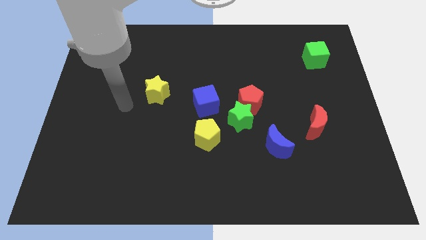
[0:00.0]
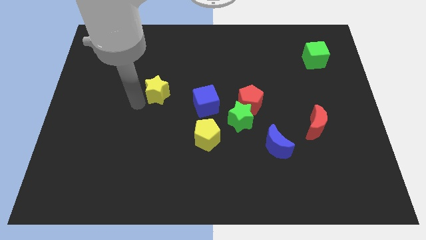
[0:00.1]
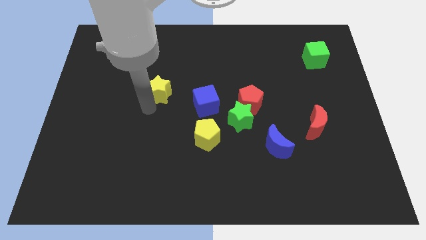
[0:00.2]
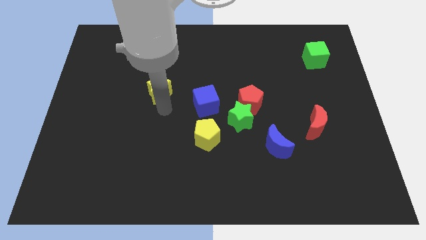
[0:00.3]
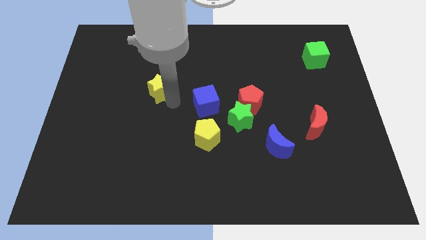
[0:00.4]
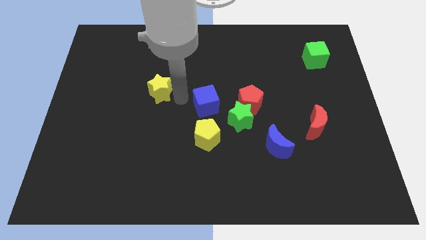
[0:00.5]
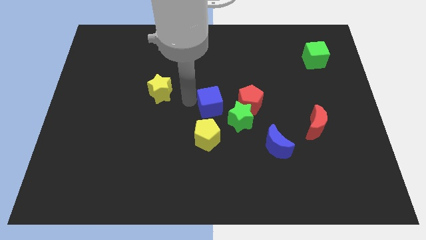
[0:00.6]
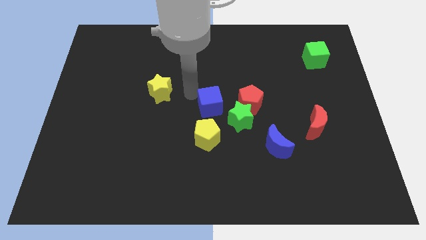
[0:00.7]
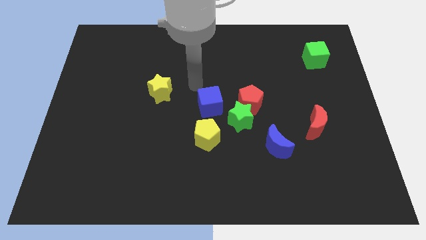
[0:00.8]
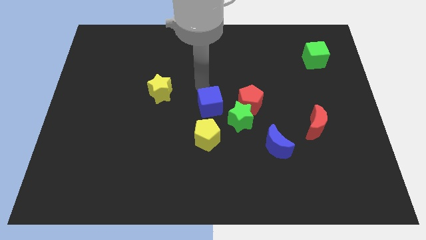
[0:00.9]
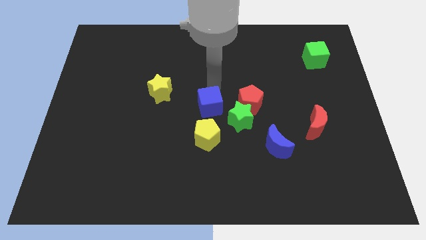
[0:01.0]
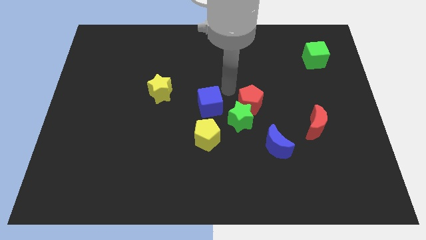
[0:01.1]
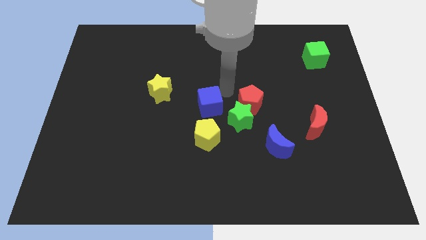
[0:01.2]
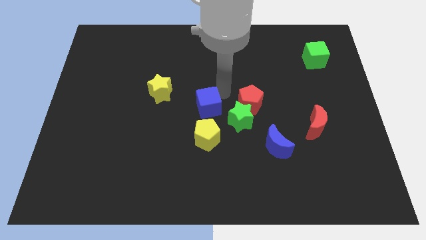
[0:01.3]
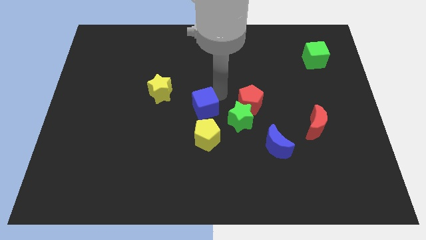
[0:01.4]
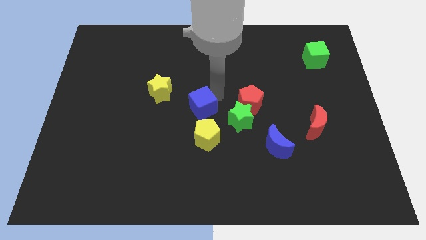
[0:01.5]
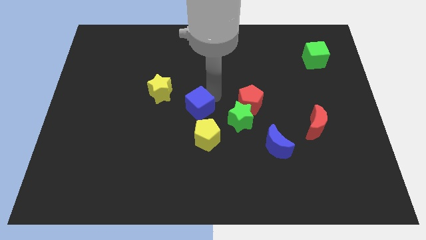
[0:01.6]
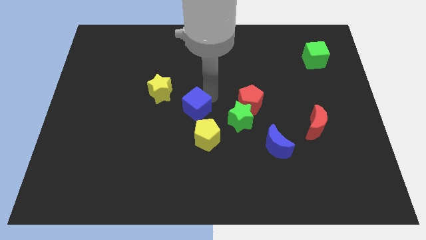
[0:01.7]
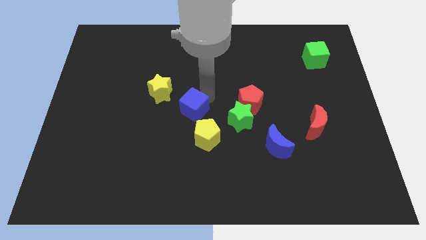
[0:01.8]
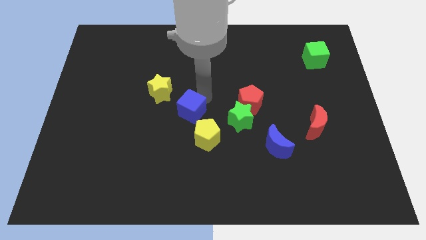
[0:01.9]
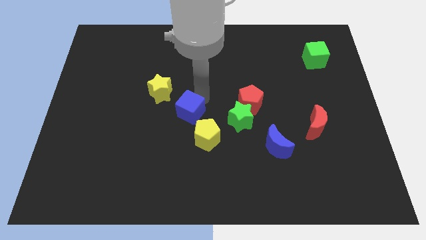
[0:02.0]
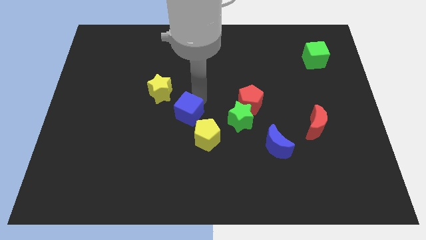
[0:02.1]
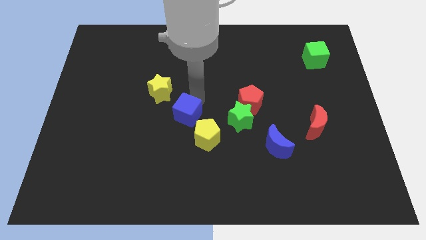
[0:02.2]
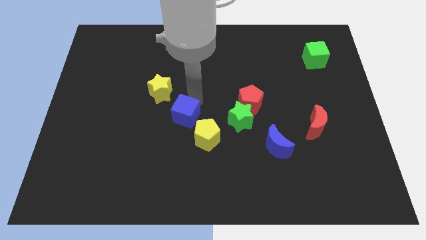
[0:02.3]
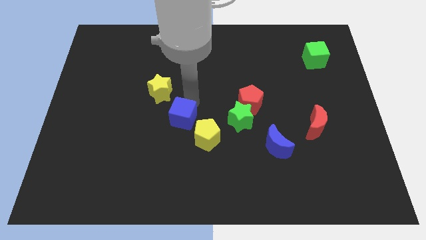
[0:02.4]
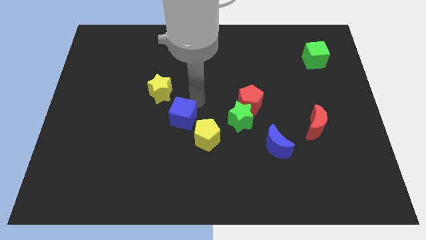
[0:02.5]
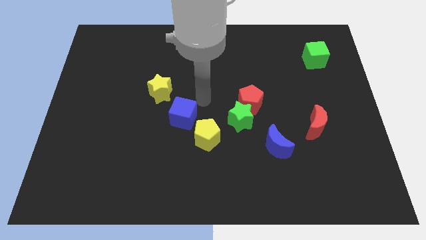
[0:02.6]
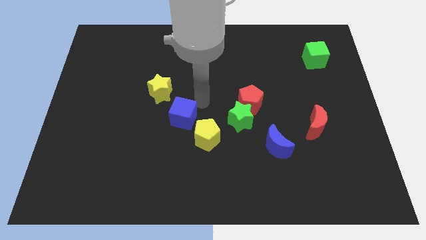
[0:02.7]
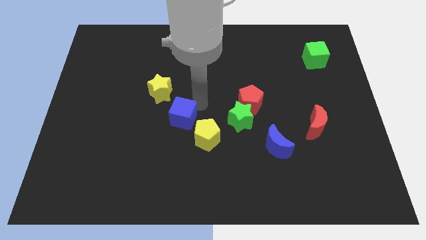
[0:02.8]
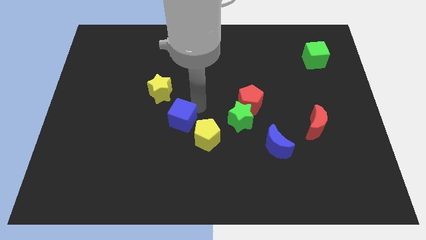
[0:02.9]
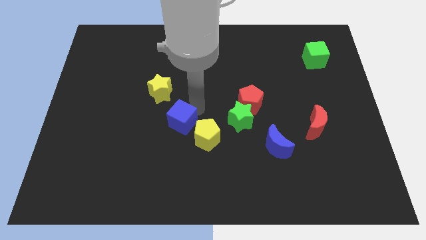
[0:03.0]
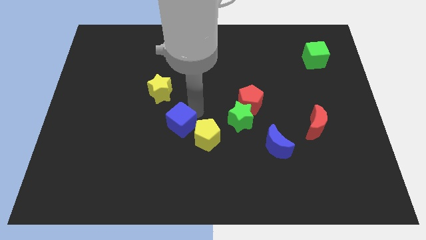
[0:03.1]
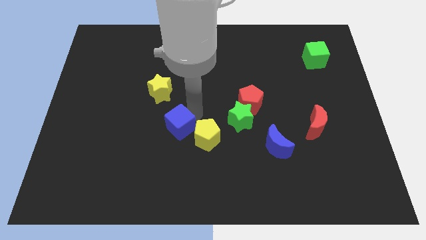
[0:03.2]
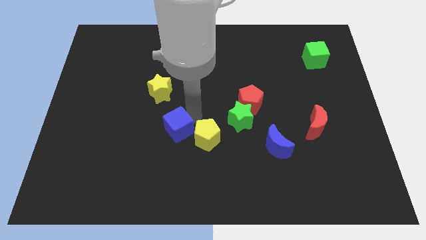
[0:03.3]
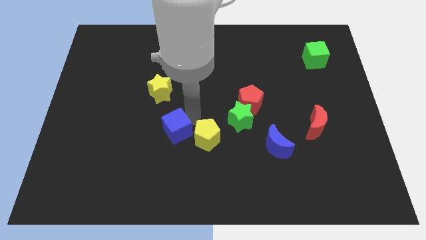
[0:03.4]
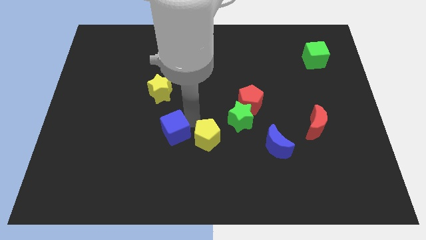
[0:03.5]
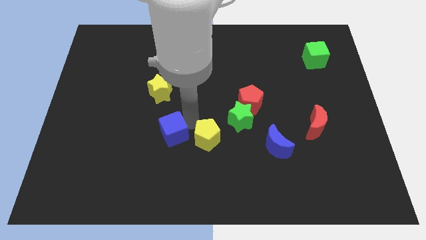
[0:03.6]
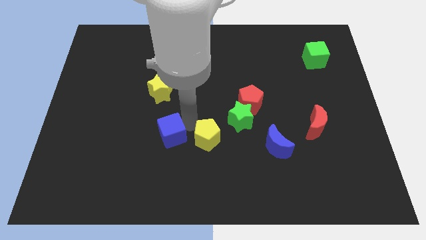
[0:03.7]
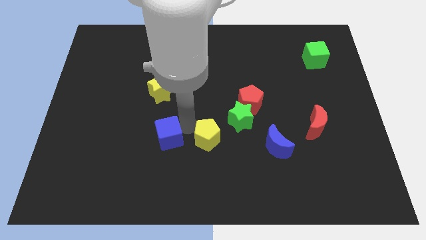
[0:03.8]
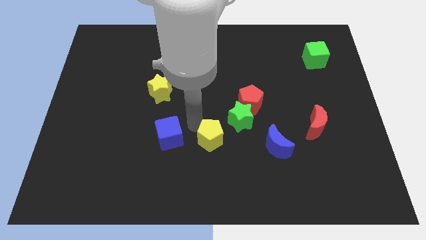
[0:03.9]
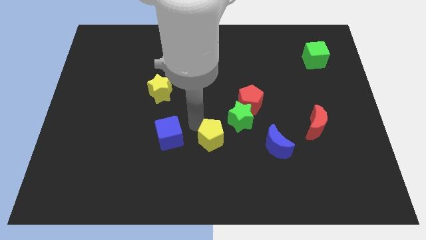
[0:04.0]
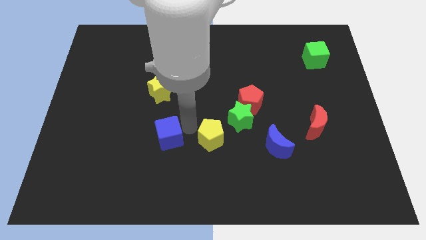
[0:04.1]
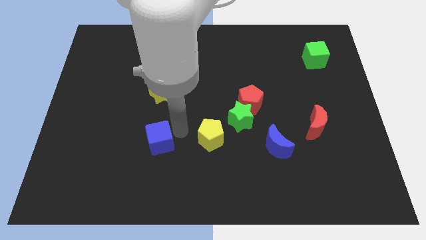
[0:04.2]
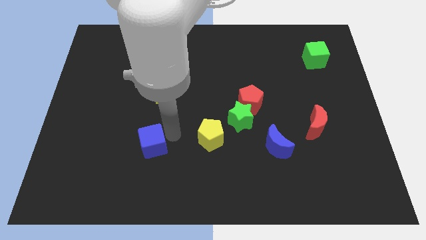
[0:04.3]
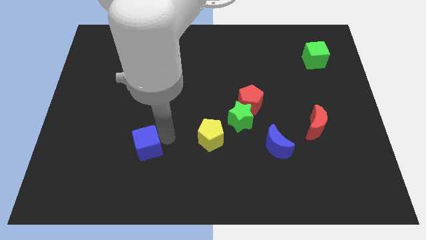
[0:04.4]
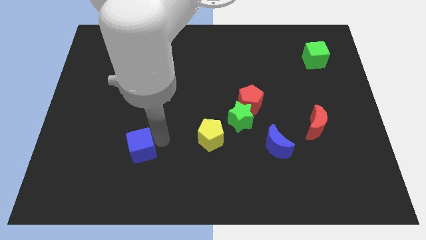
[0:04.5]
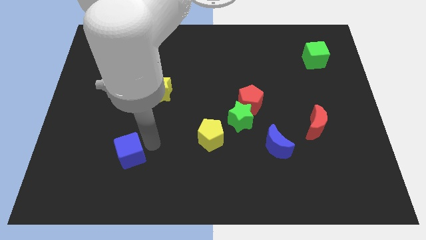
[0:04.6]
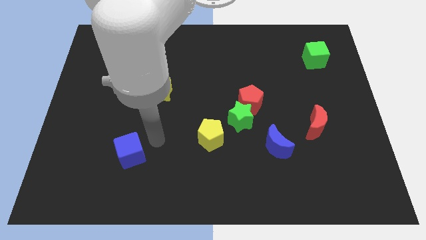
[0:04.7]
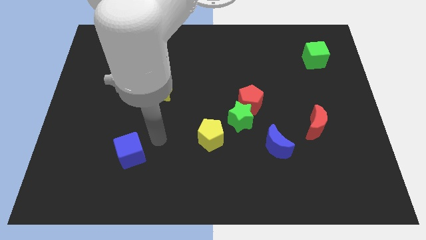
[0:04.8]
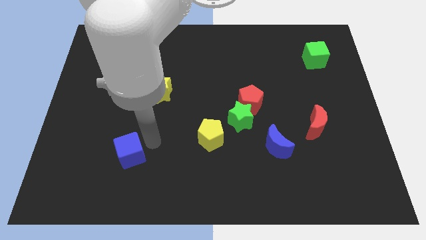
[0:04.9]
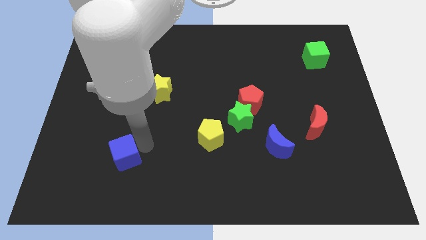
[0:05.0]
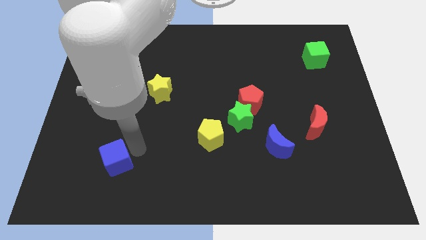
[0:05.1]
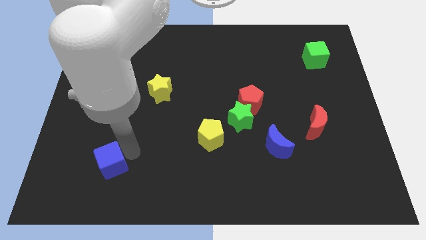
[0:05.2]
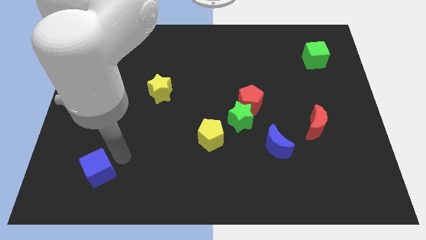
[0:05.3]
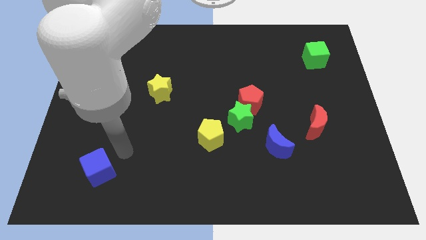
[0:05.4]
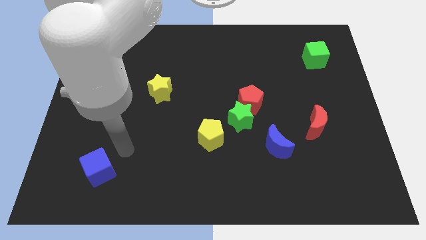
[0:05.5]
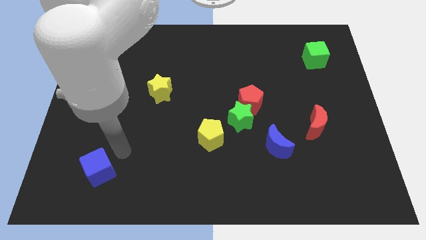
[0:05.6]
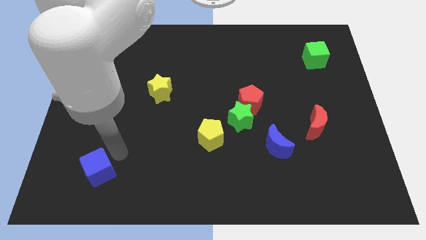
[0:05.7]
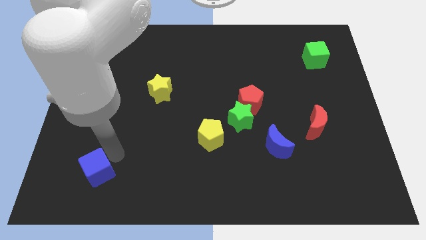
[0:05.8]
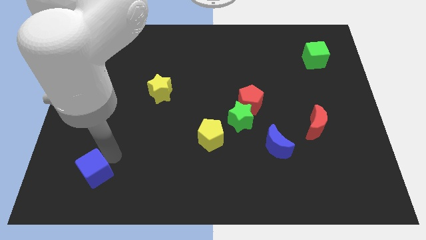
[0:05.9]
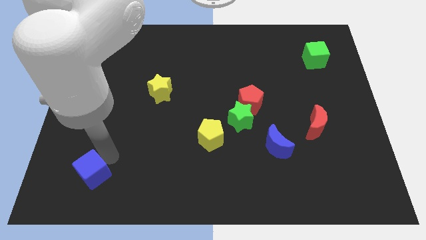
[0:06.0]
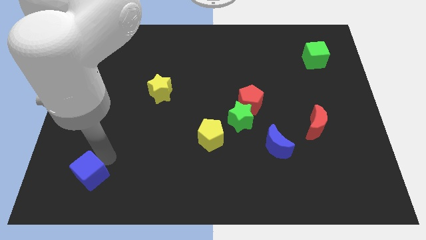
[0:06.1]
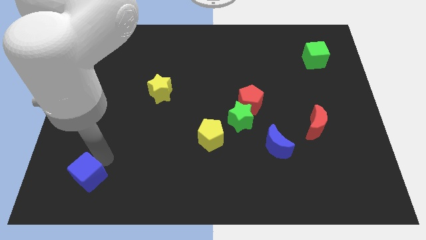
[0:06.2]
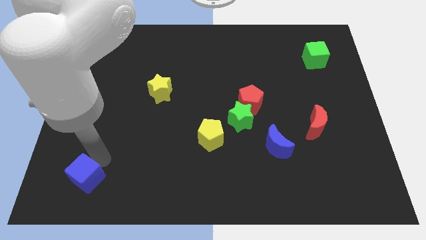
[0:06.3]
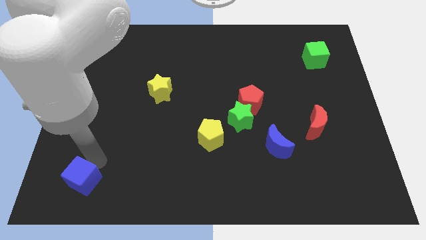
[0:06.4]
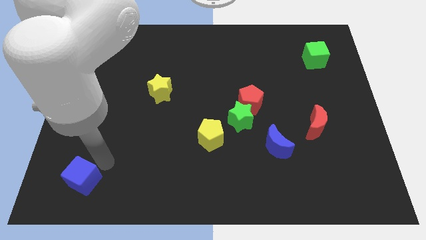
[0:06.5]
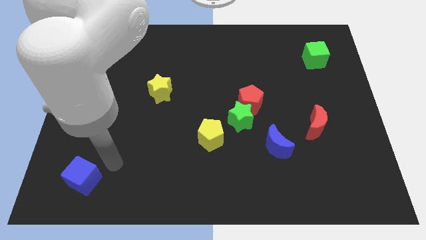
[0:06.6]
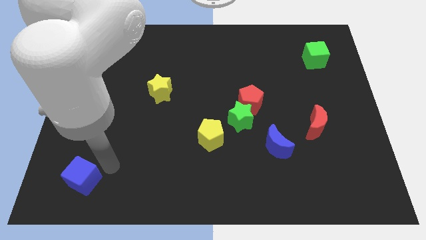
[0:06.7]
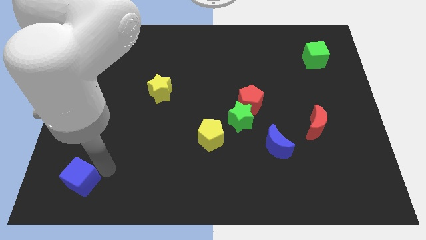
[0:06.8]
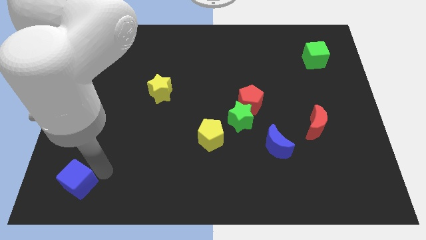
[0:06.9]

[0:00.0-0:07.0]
put the blue cube to the bottom left
